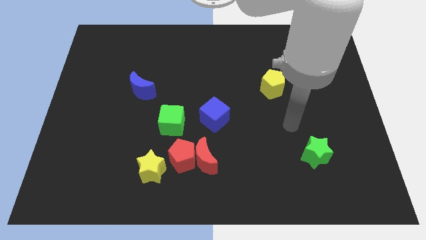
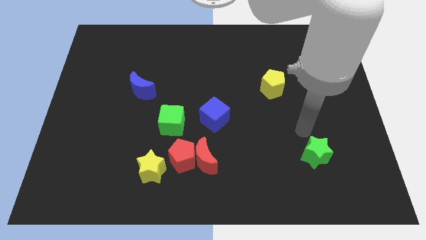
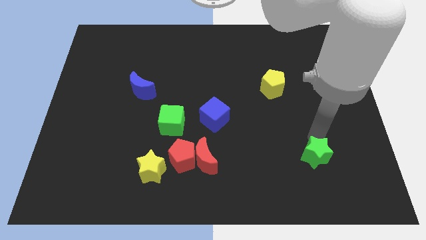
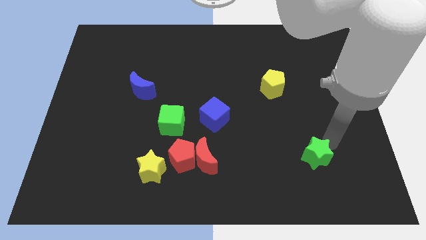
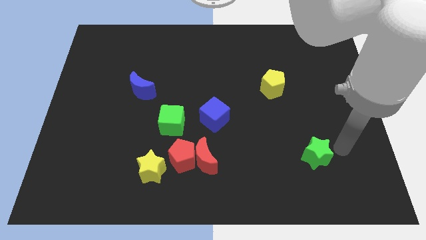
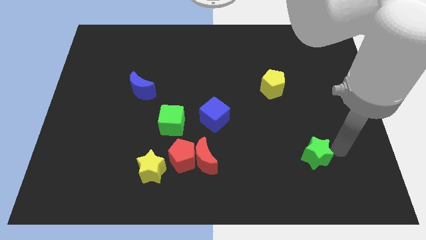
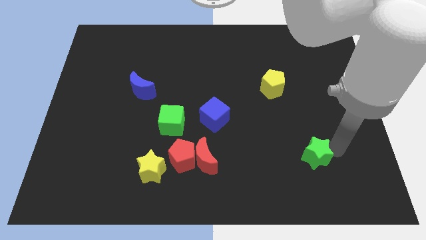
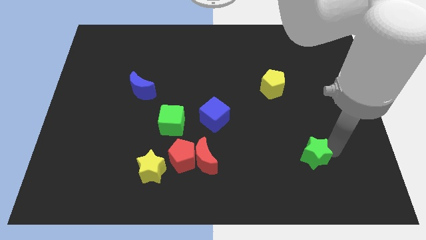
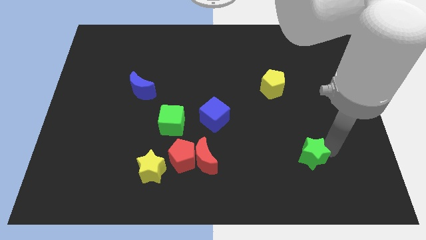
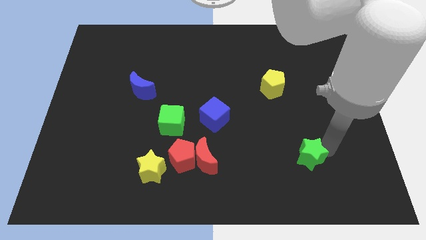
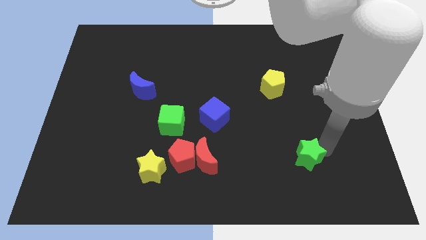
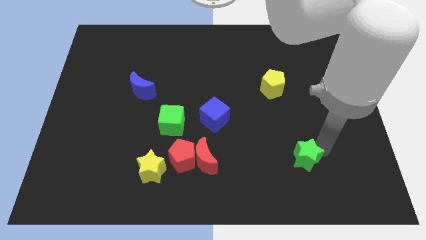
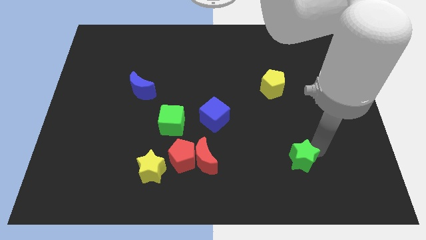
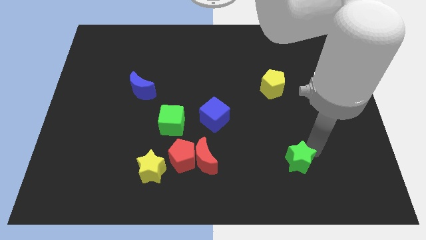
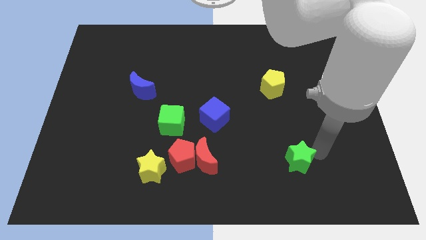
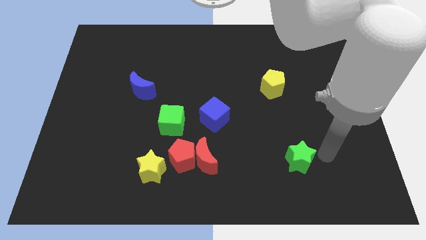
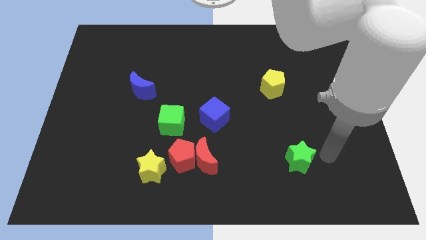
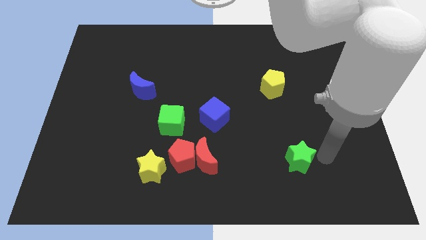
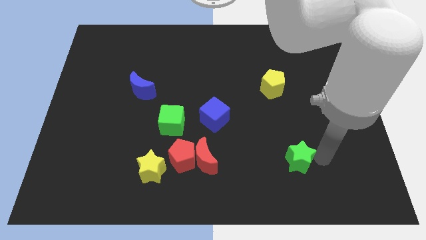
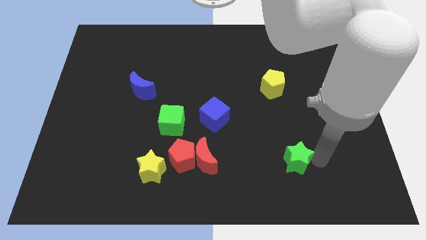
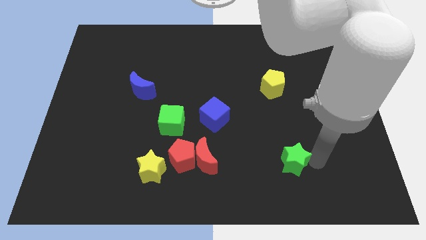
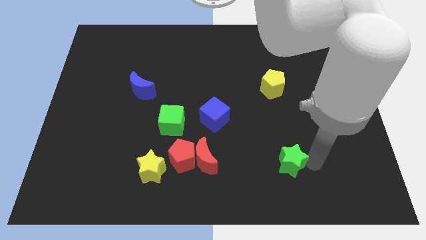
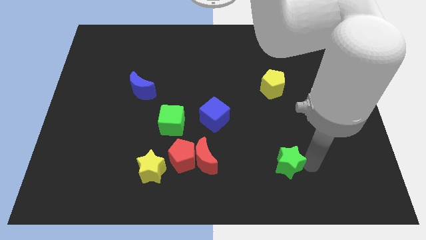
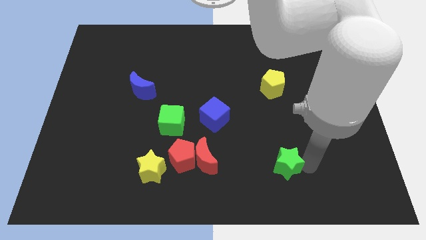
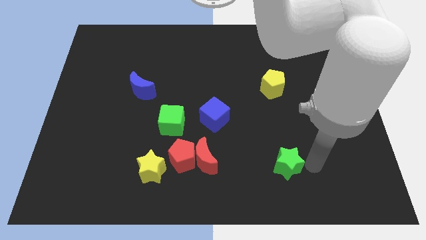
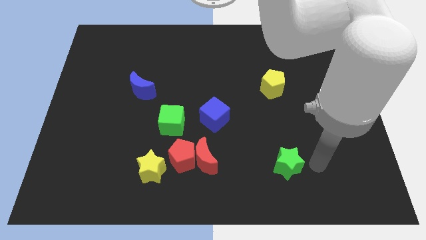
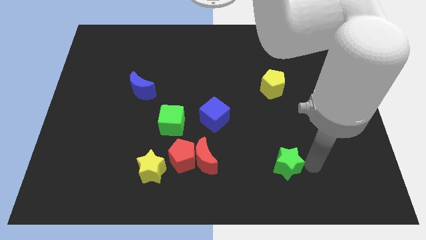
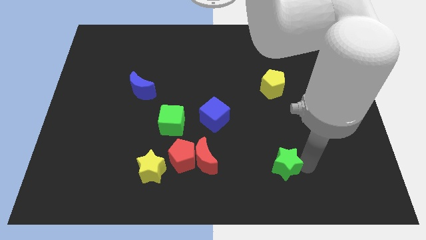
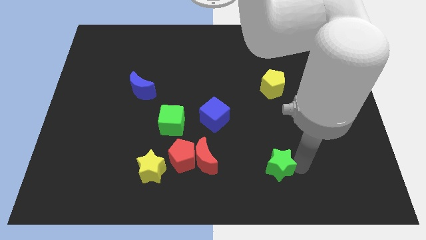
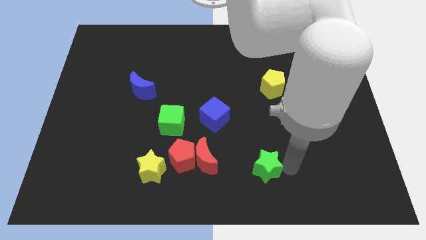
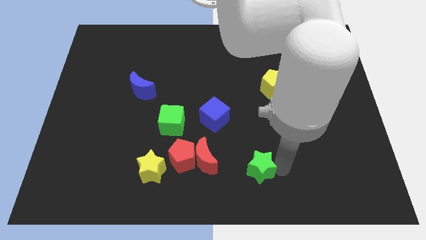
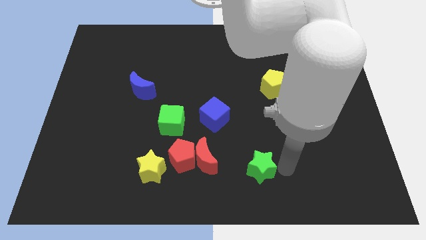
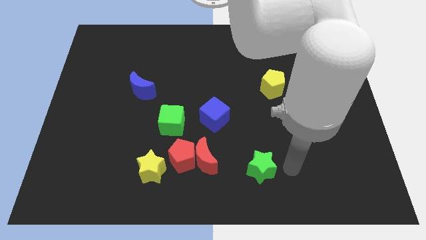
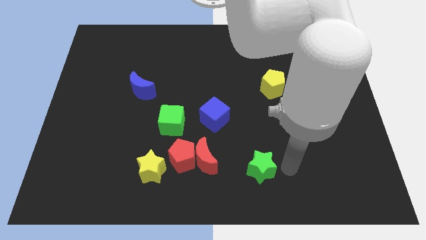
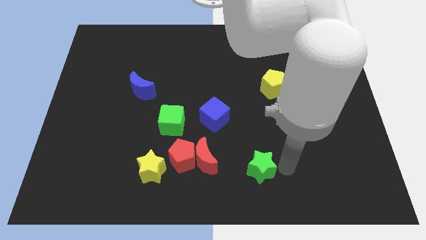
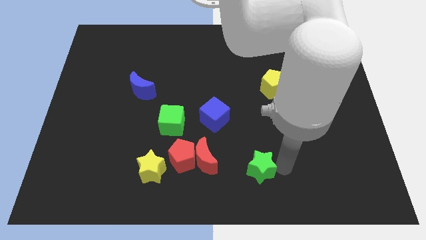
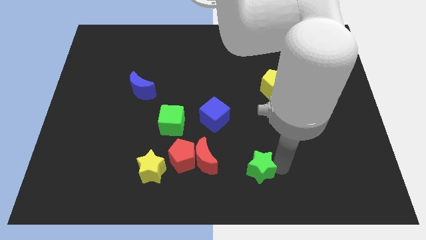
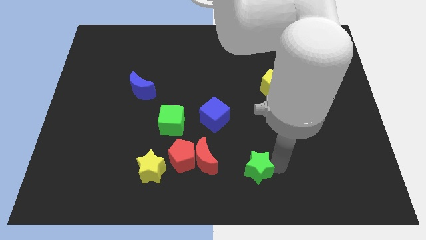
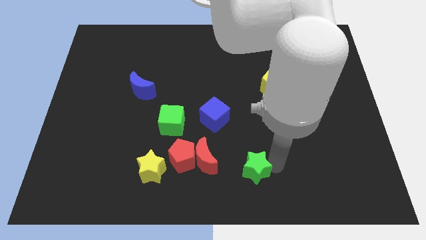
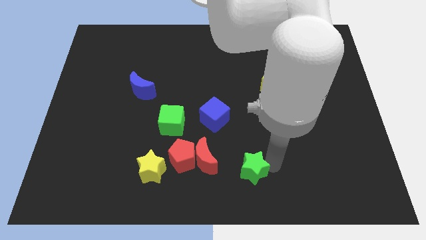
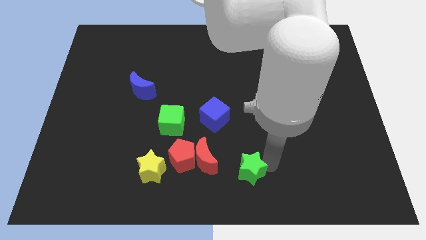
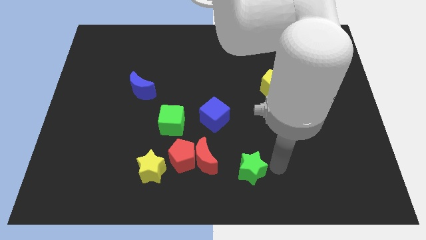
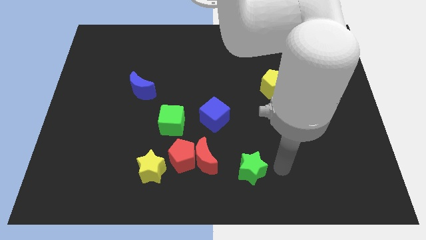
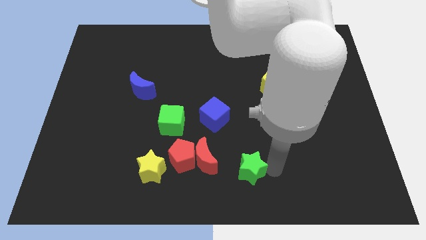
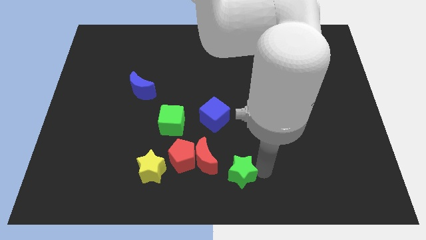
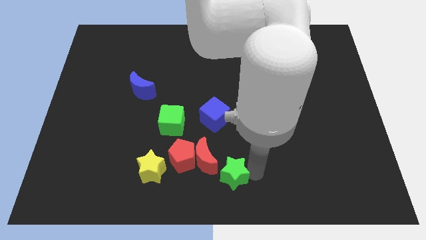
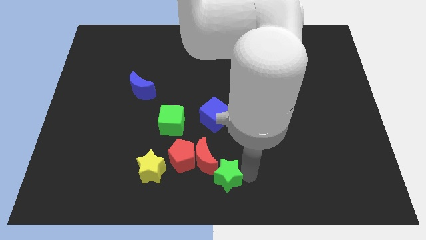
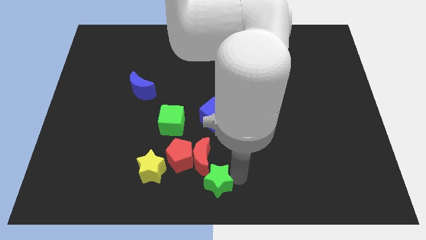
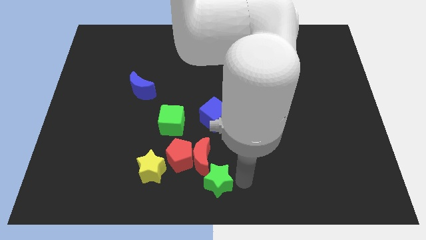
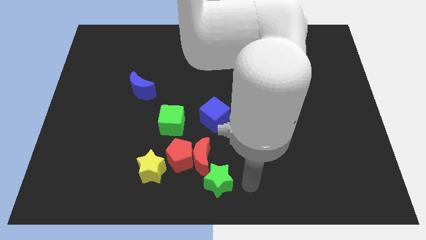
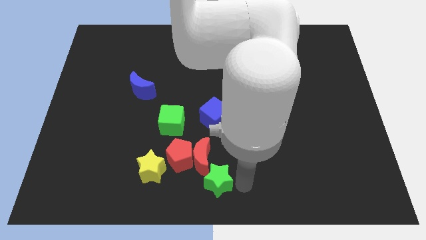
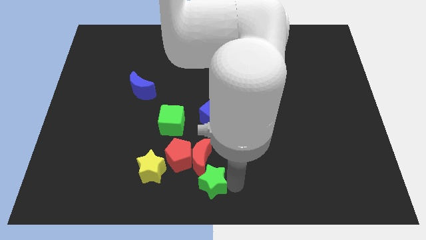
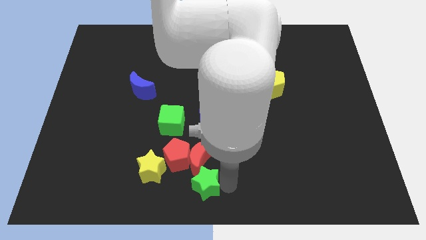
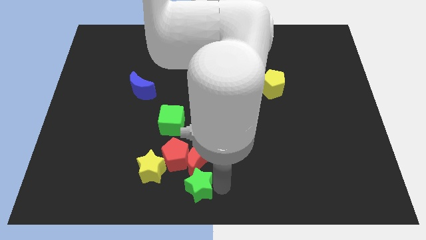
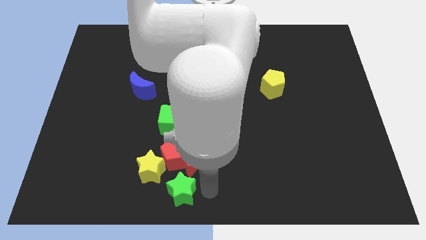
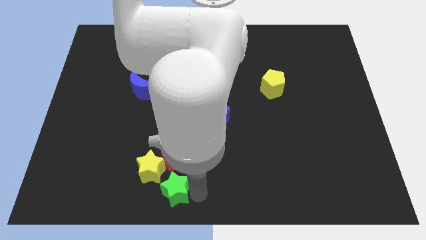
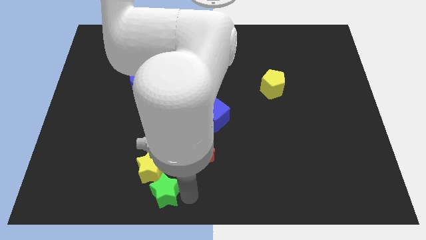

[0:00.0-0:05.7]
move the green star next to the yellow star

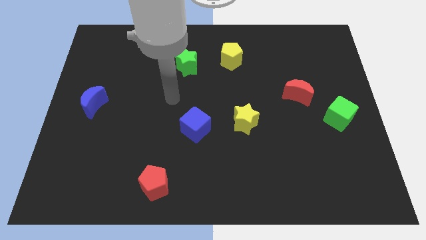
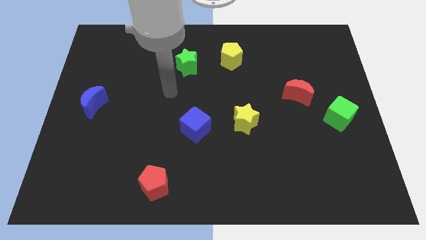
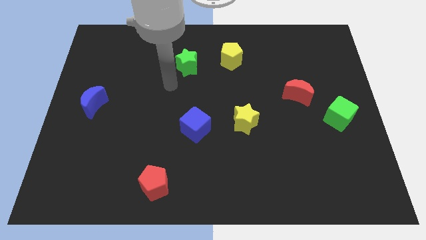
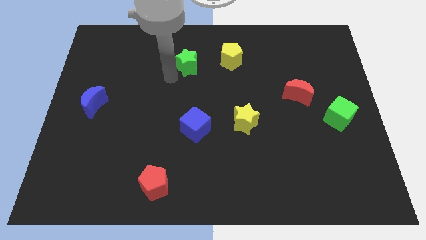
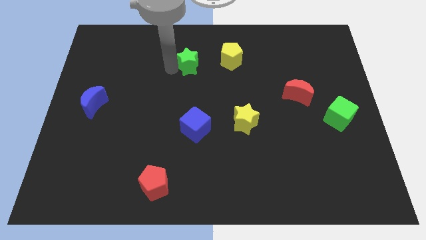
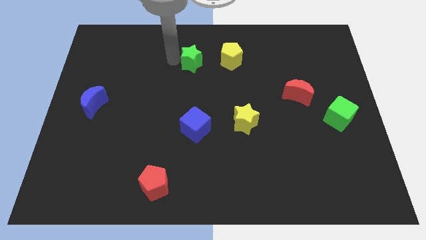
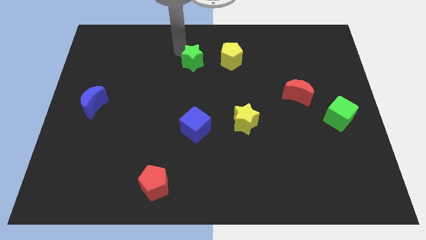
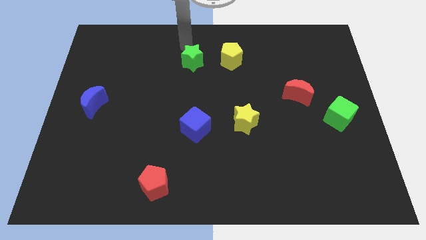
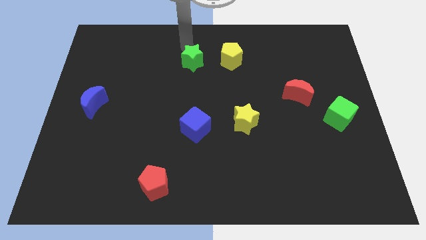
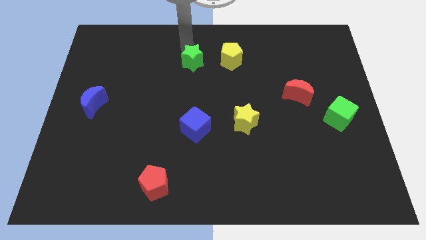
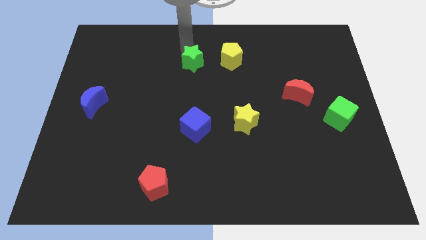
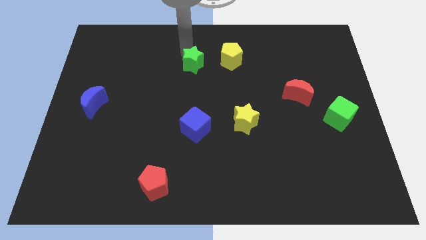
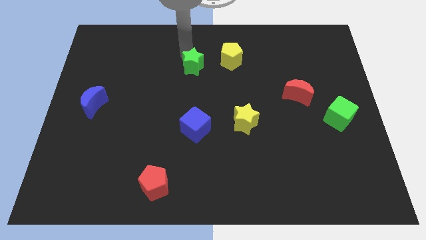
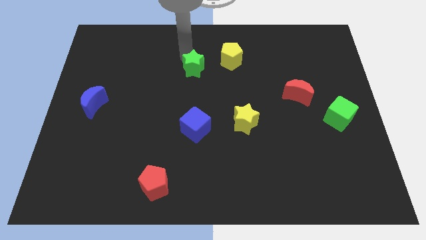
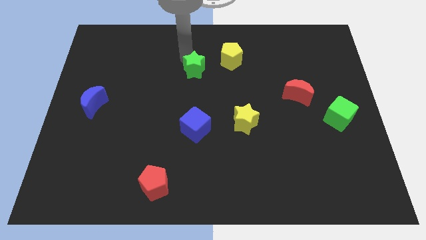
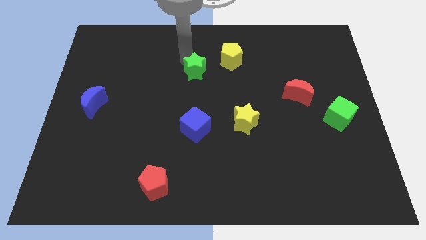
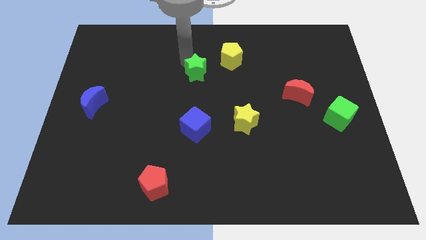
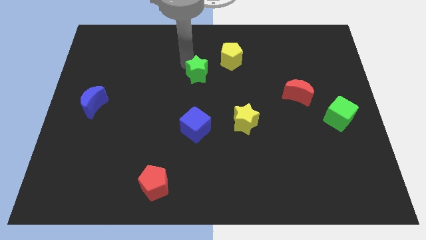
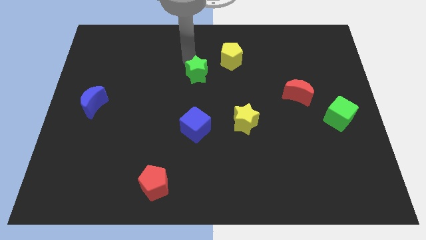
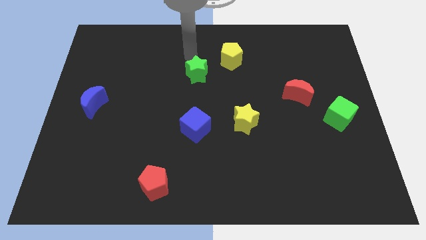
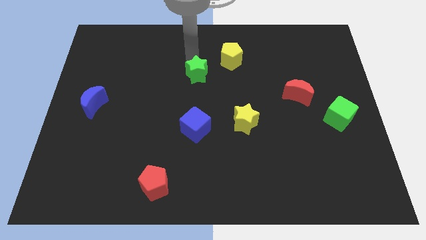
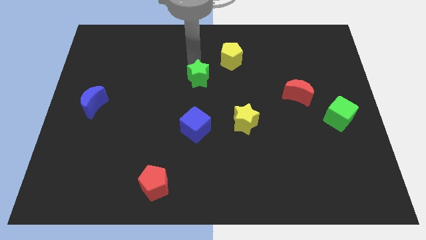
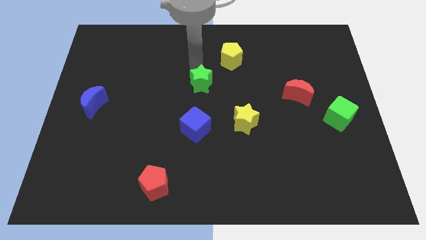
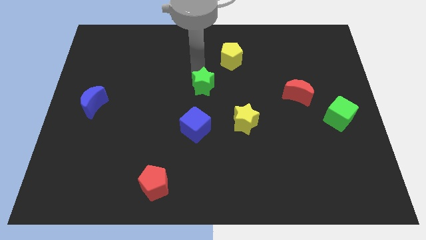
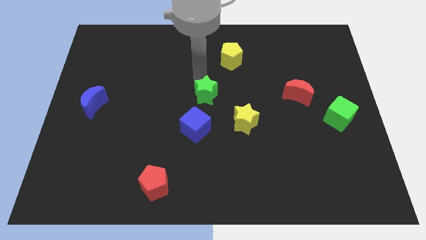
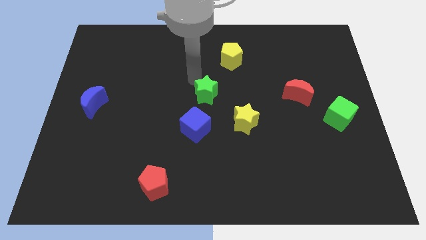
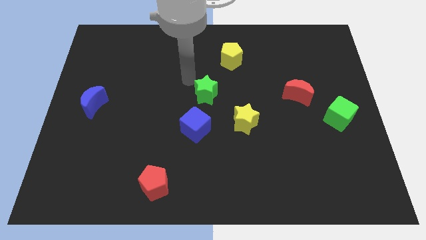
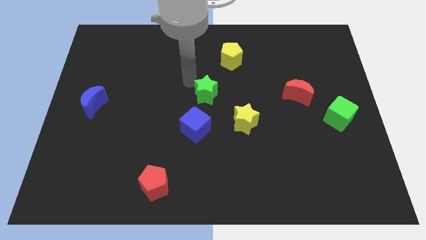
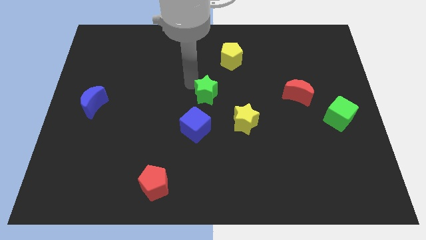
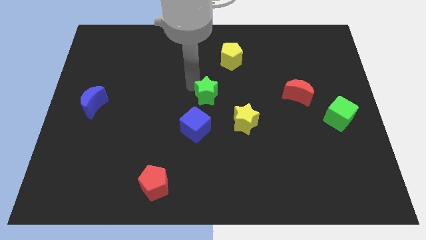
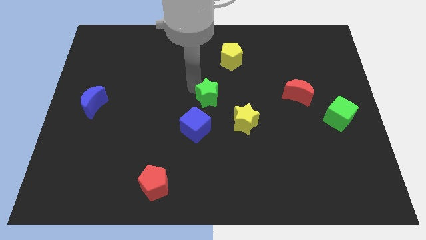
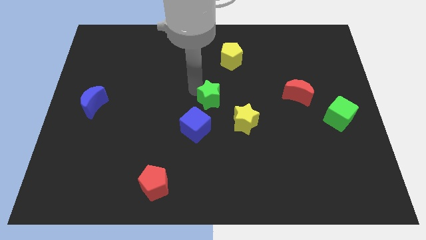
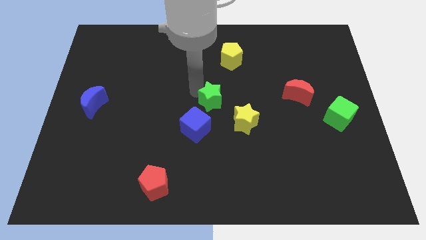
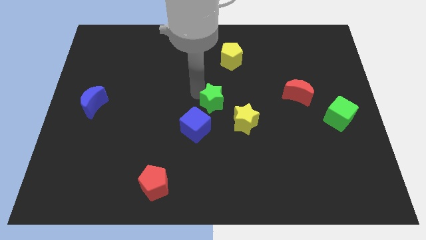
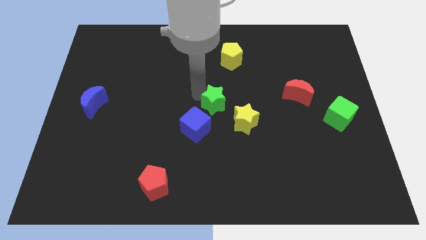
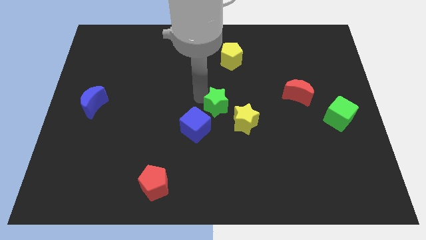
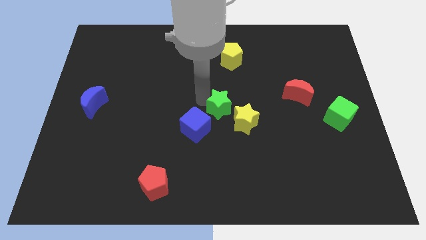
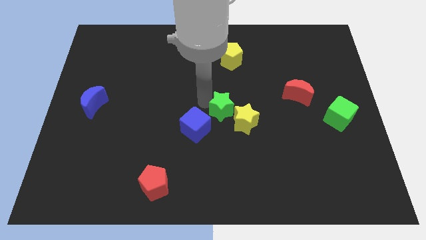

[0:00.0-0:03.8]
push the green star next to the yellow star
